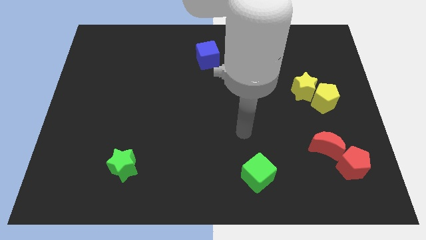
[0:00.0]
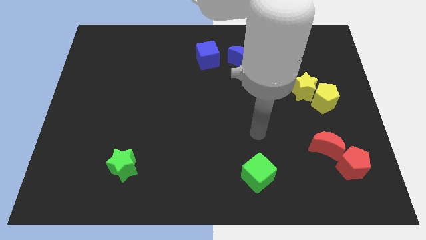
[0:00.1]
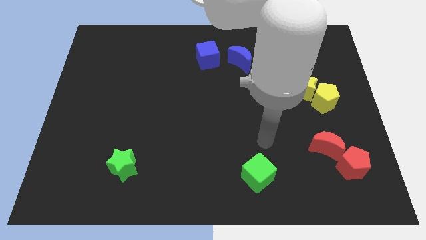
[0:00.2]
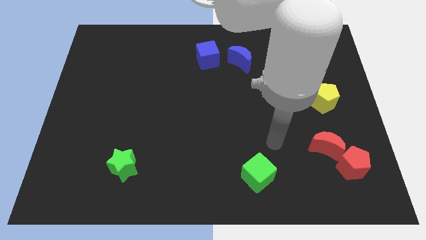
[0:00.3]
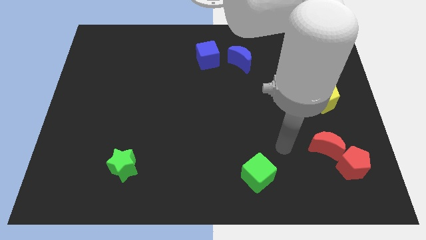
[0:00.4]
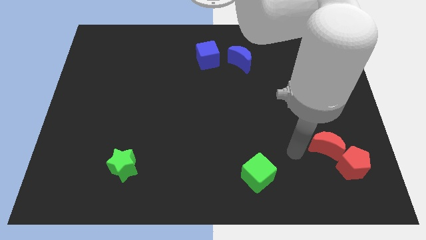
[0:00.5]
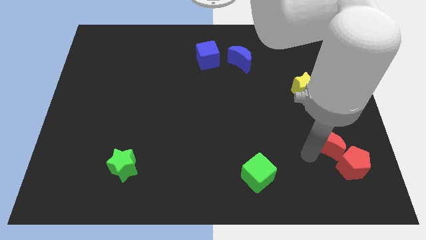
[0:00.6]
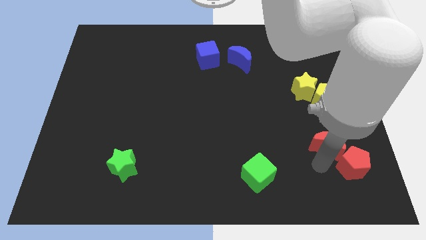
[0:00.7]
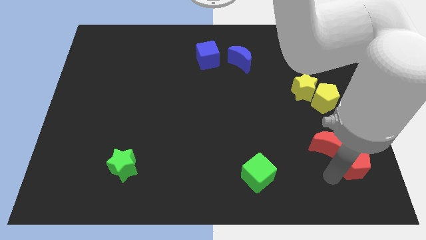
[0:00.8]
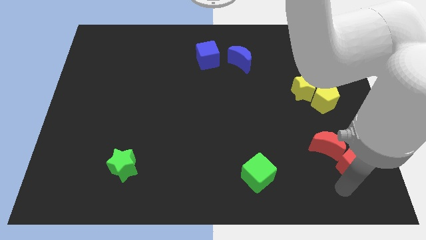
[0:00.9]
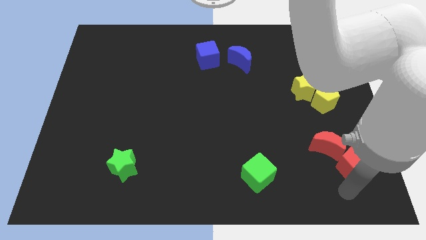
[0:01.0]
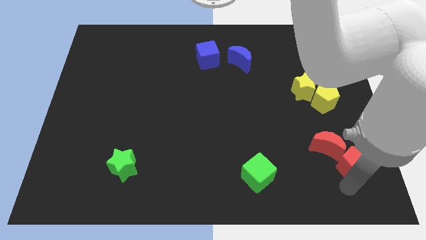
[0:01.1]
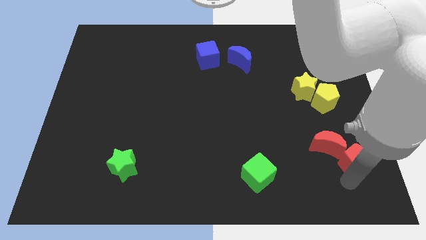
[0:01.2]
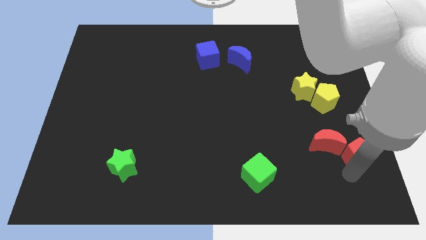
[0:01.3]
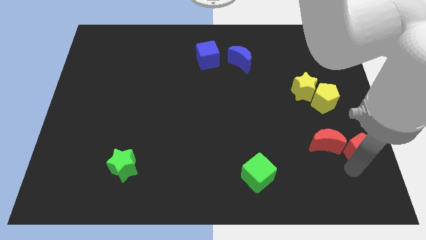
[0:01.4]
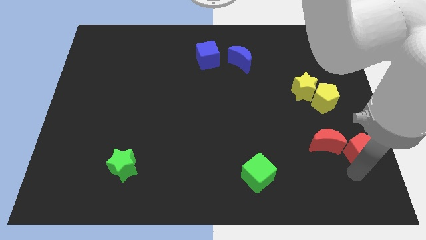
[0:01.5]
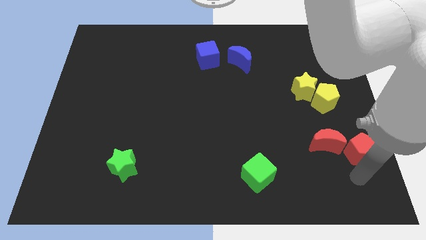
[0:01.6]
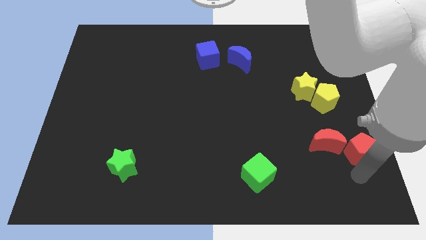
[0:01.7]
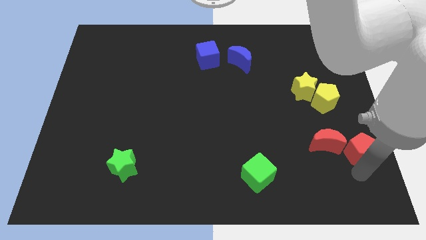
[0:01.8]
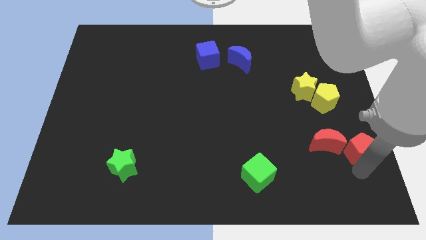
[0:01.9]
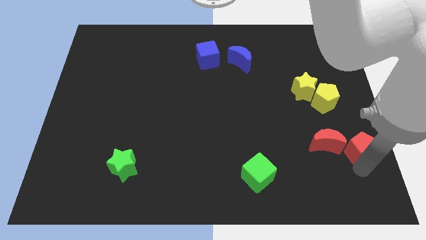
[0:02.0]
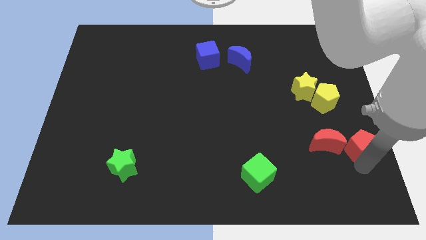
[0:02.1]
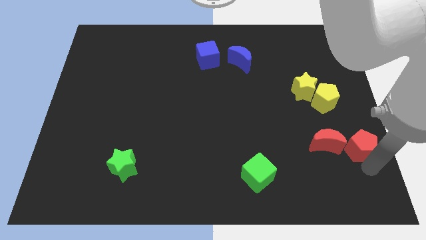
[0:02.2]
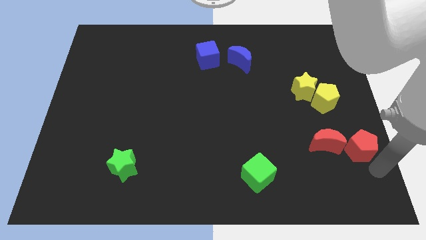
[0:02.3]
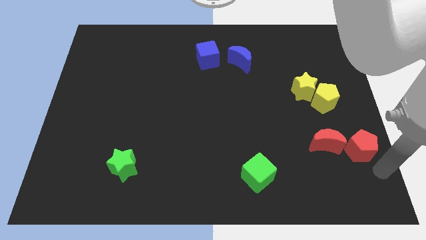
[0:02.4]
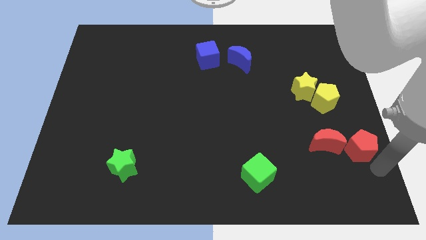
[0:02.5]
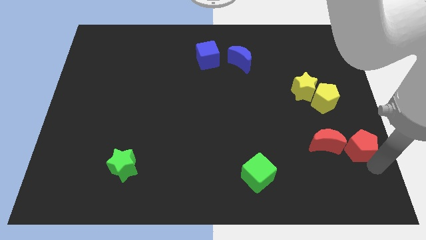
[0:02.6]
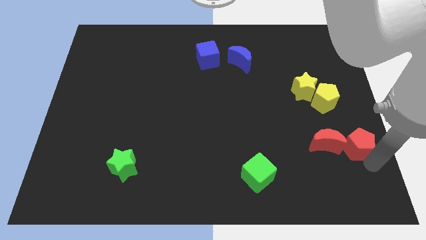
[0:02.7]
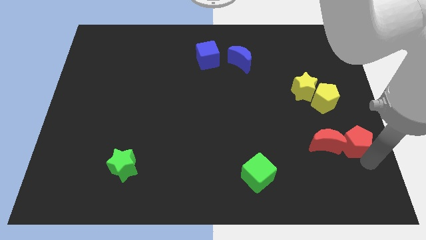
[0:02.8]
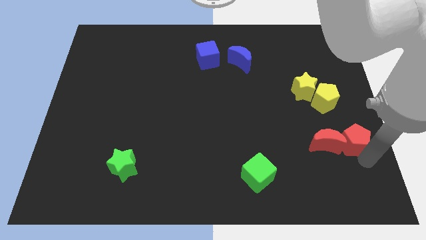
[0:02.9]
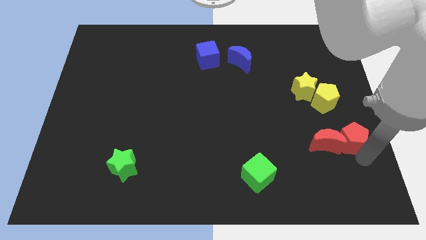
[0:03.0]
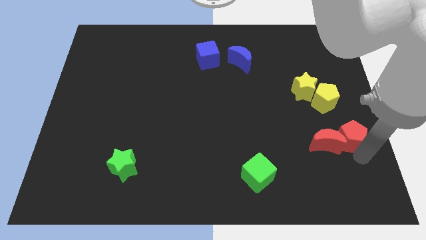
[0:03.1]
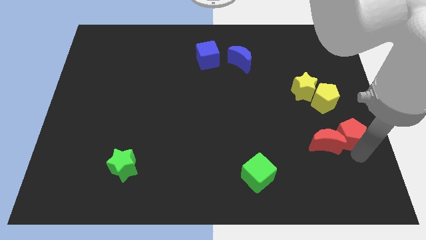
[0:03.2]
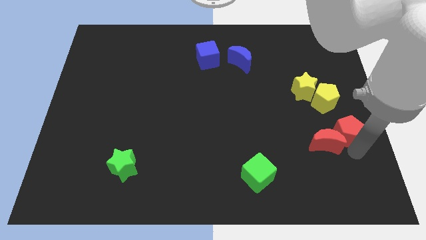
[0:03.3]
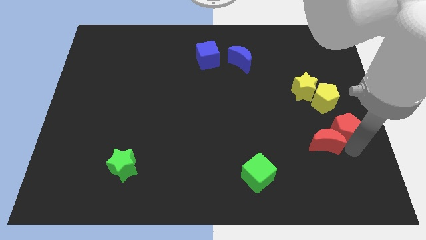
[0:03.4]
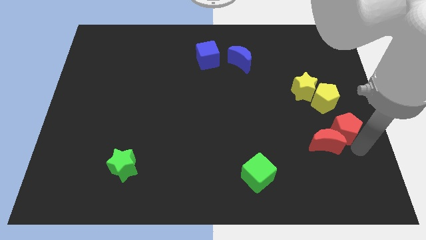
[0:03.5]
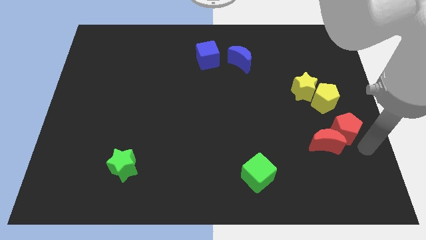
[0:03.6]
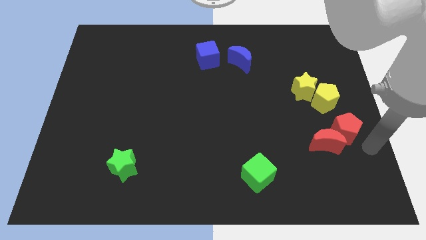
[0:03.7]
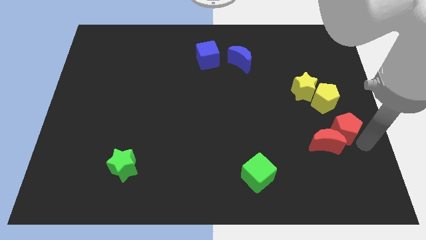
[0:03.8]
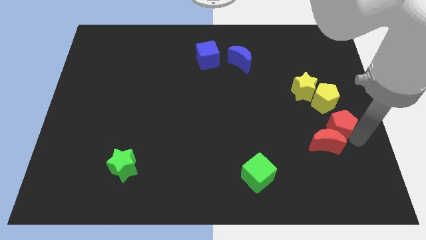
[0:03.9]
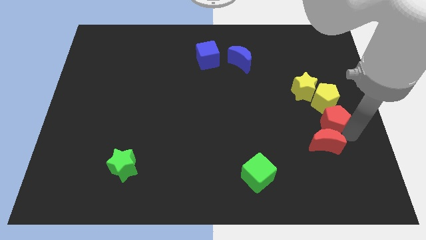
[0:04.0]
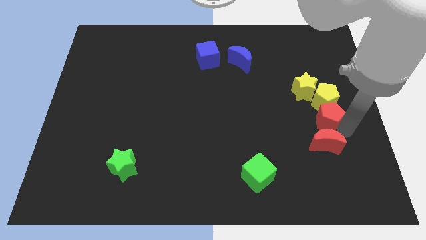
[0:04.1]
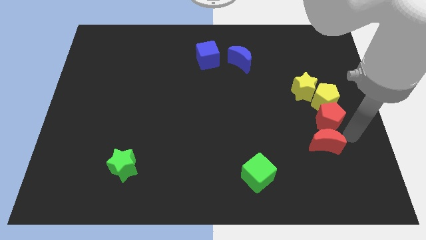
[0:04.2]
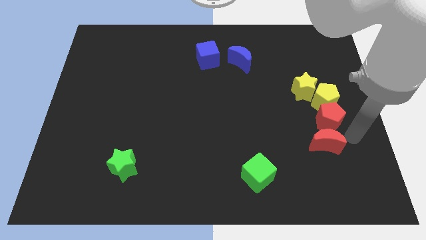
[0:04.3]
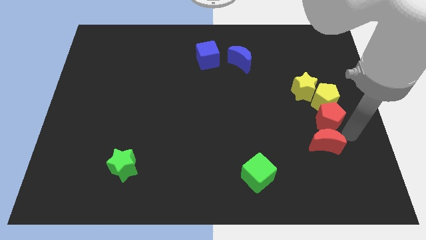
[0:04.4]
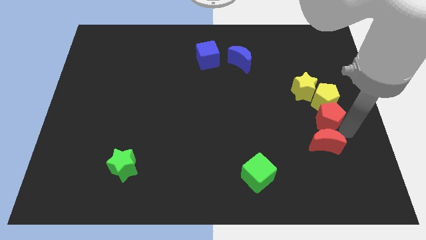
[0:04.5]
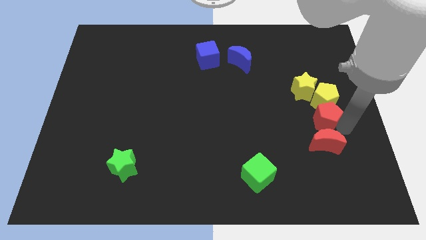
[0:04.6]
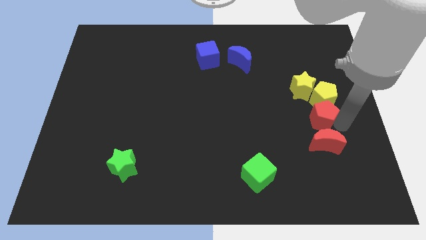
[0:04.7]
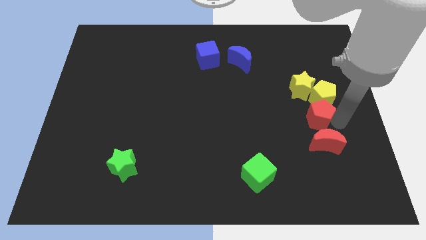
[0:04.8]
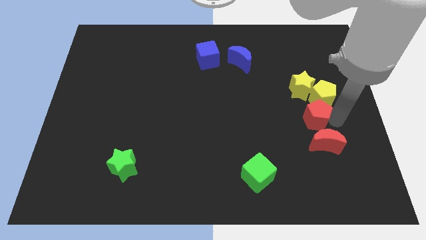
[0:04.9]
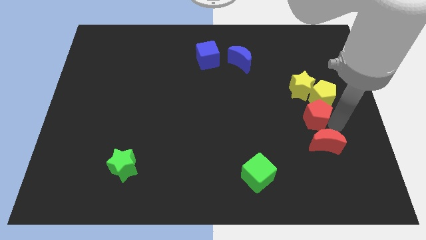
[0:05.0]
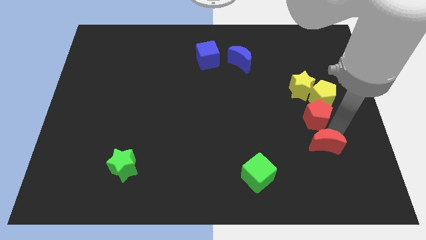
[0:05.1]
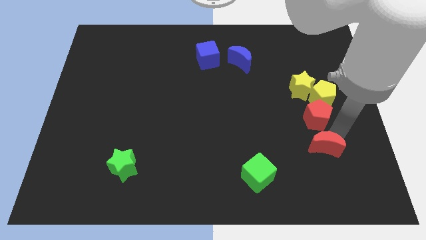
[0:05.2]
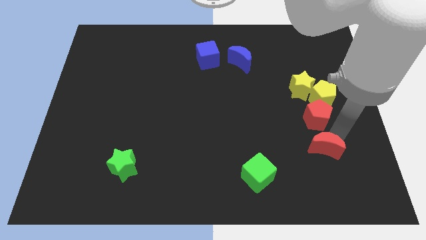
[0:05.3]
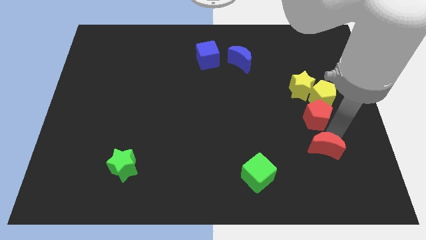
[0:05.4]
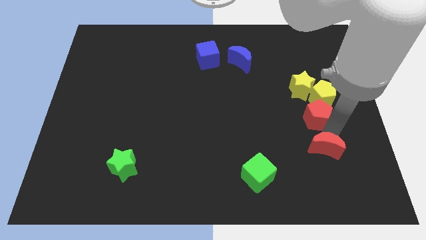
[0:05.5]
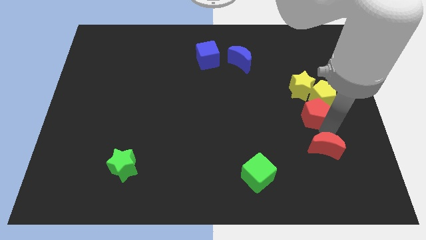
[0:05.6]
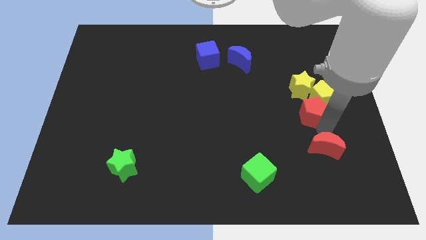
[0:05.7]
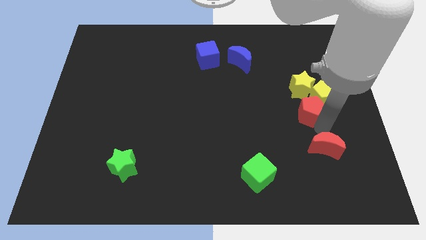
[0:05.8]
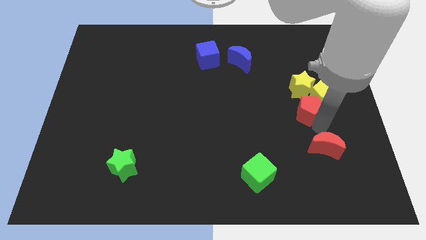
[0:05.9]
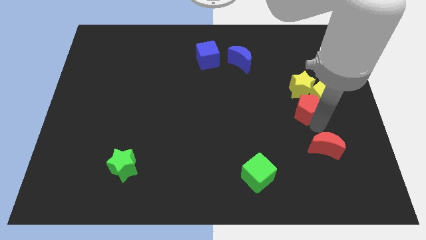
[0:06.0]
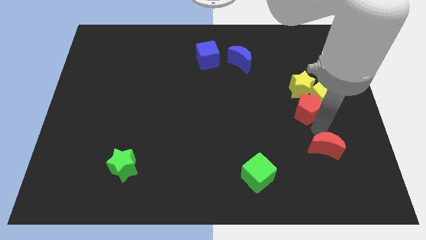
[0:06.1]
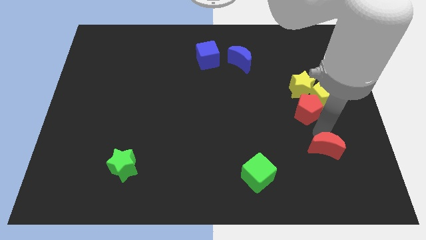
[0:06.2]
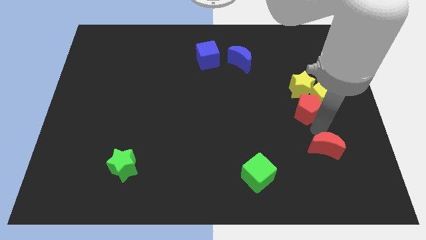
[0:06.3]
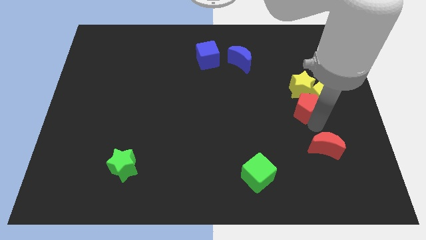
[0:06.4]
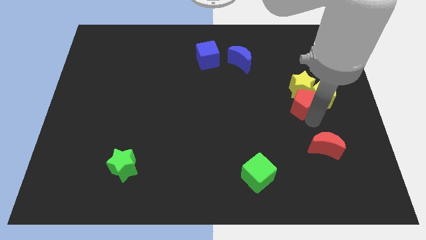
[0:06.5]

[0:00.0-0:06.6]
put the red pentagon close to the yellow star

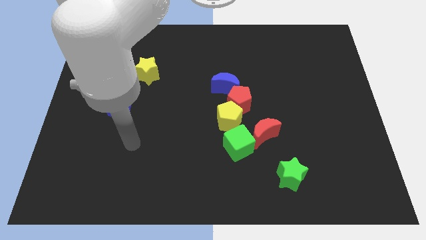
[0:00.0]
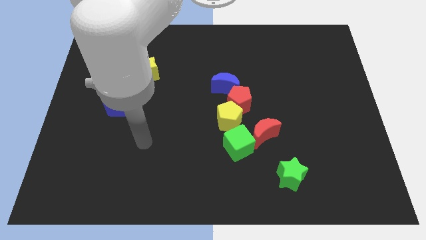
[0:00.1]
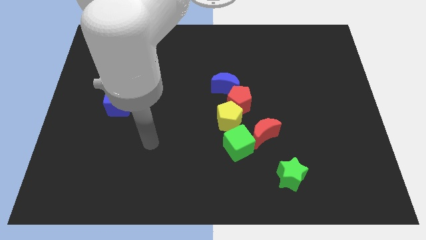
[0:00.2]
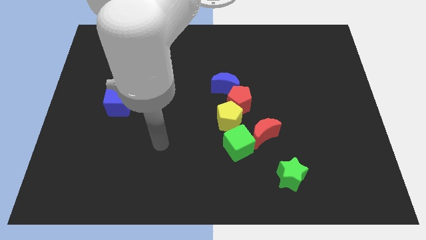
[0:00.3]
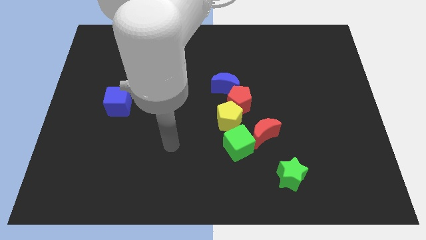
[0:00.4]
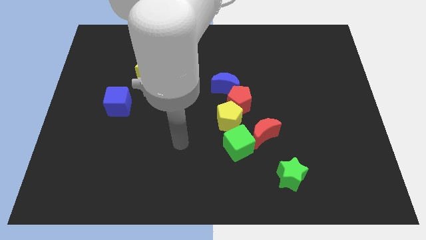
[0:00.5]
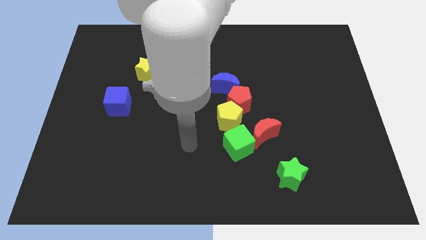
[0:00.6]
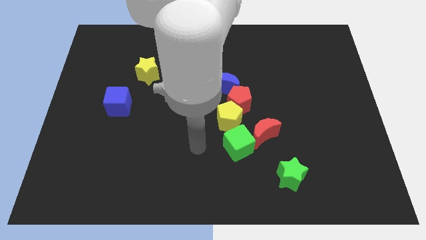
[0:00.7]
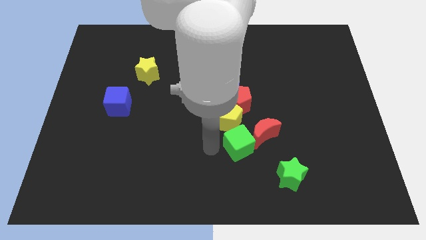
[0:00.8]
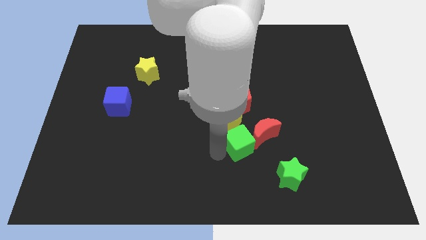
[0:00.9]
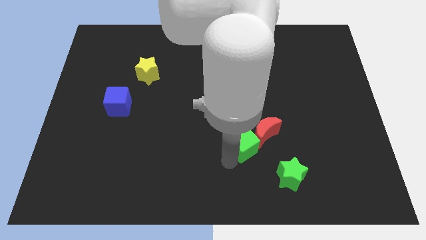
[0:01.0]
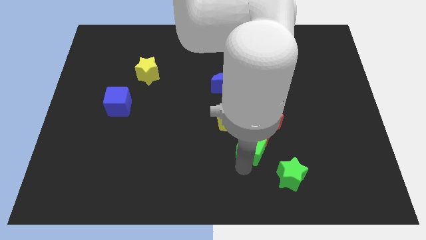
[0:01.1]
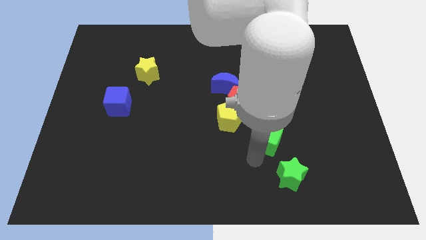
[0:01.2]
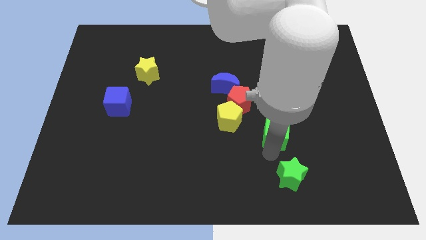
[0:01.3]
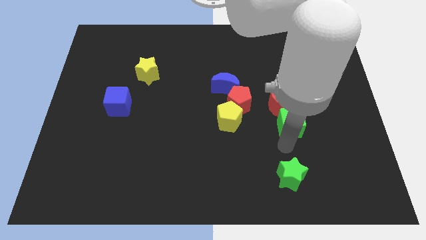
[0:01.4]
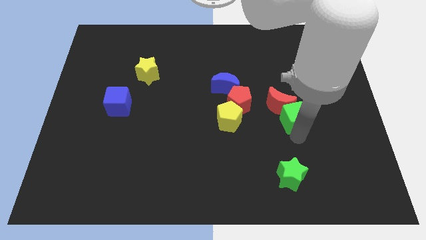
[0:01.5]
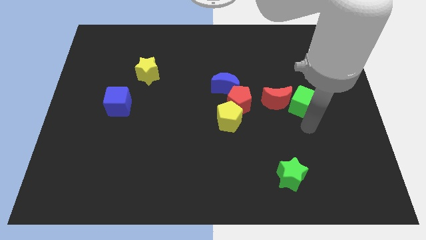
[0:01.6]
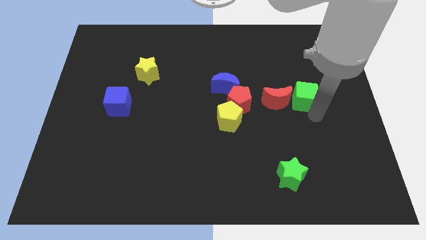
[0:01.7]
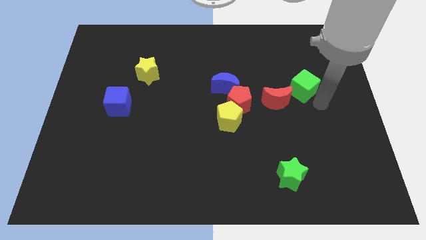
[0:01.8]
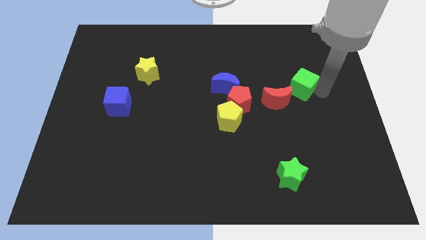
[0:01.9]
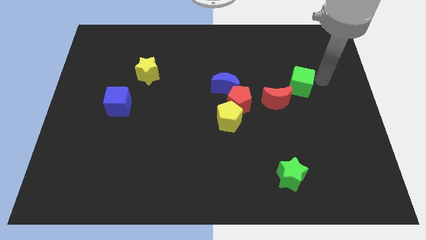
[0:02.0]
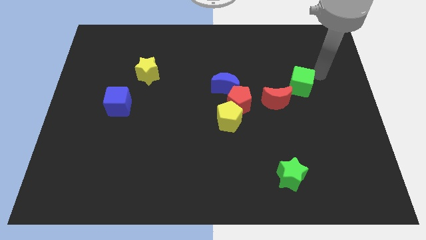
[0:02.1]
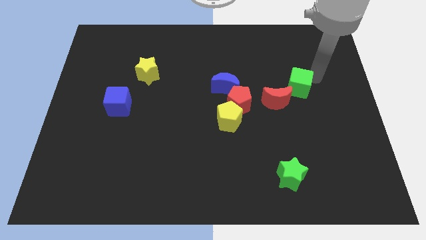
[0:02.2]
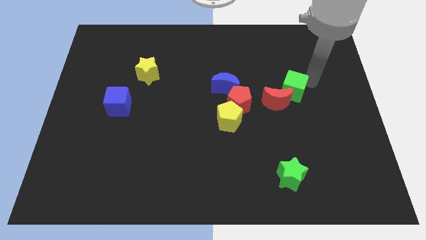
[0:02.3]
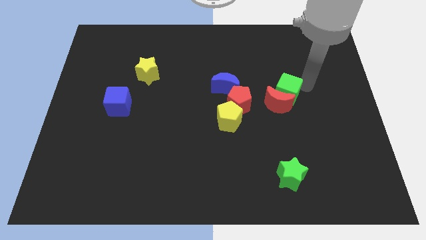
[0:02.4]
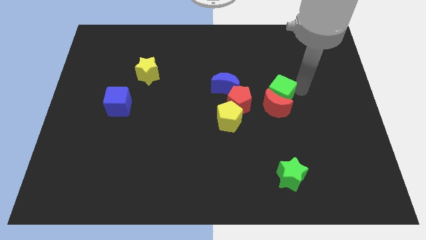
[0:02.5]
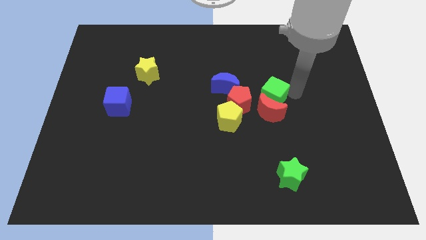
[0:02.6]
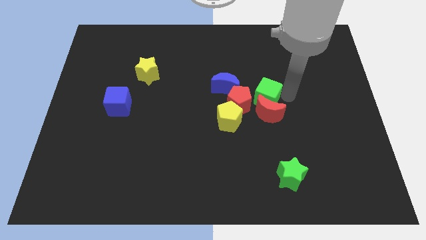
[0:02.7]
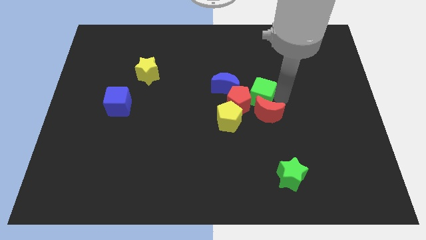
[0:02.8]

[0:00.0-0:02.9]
move the green cube to the red pentagon
